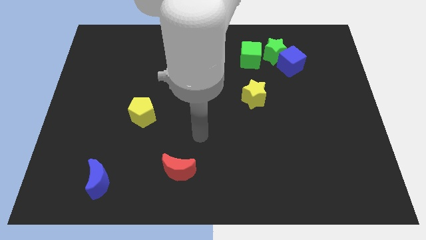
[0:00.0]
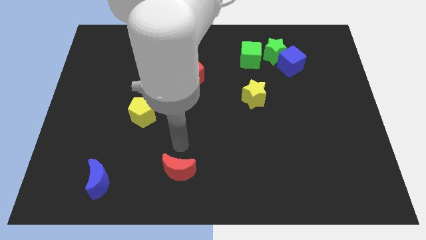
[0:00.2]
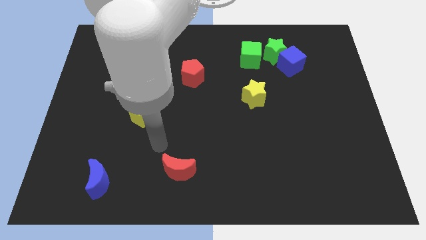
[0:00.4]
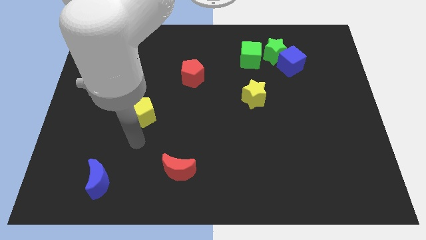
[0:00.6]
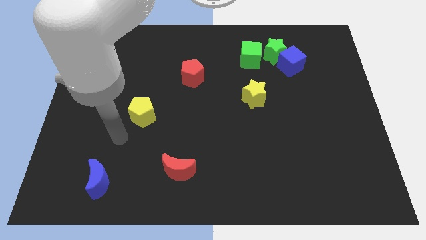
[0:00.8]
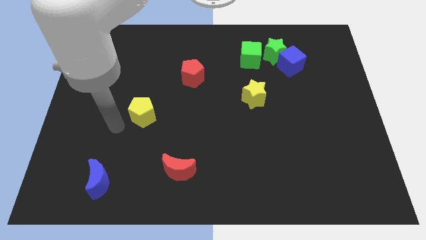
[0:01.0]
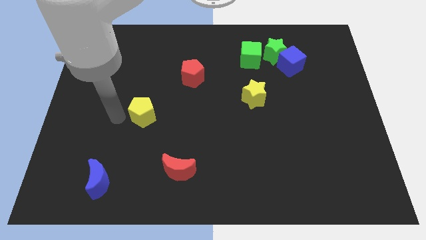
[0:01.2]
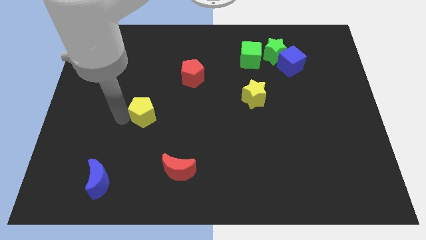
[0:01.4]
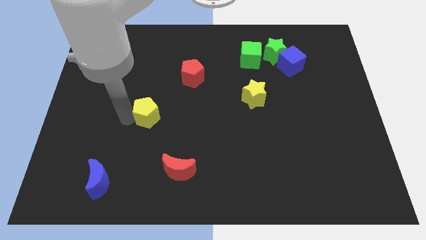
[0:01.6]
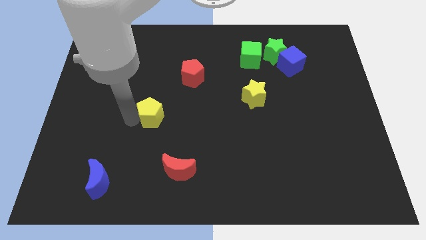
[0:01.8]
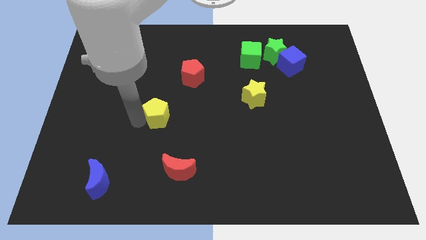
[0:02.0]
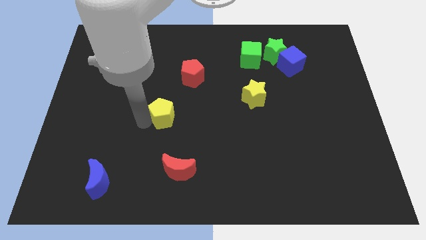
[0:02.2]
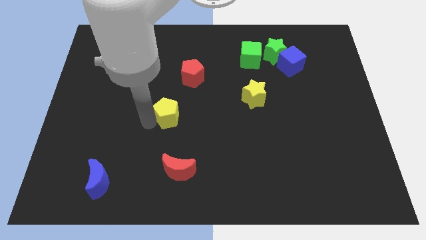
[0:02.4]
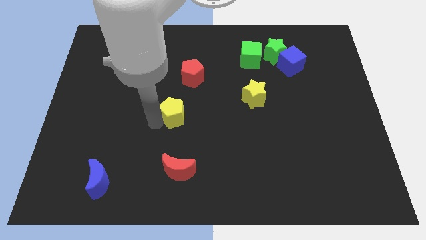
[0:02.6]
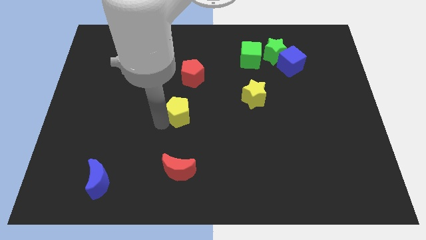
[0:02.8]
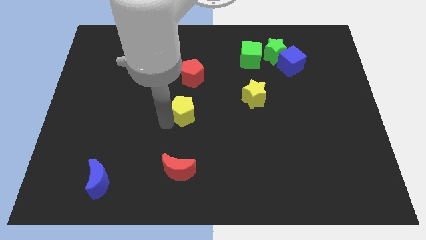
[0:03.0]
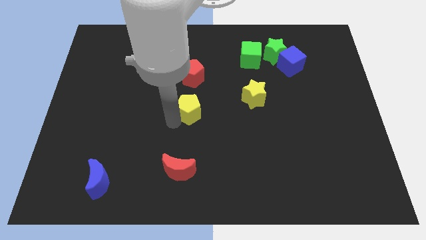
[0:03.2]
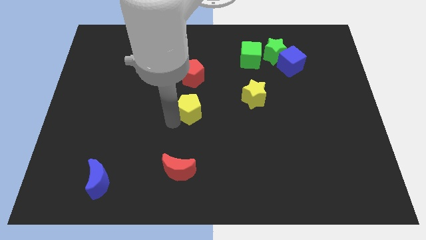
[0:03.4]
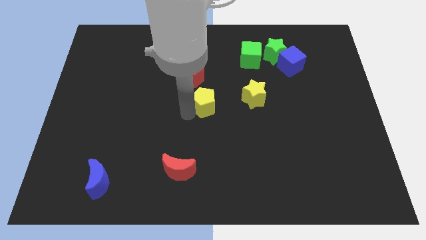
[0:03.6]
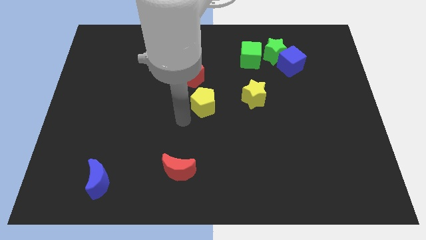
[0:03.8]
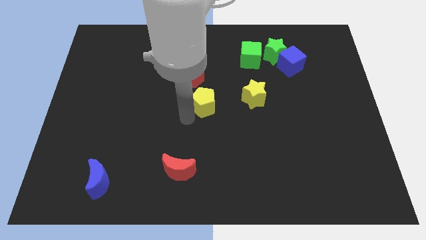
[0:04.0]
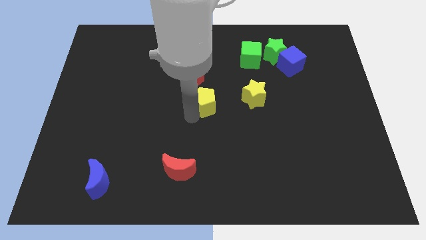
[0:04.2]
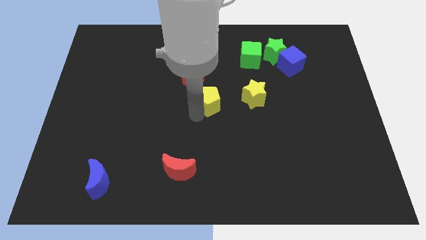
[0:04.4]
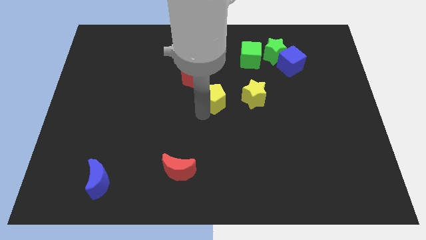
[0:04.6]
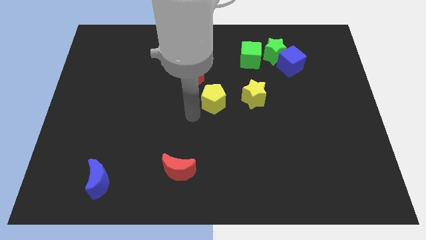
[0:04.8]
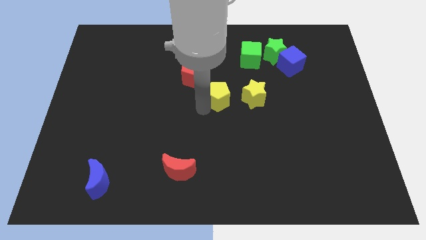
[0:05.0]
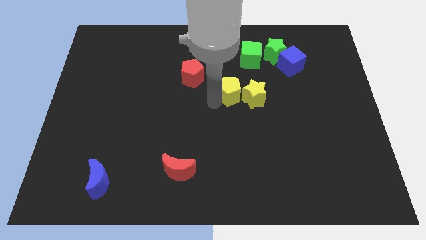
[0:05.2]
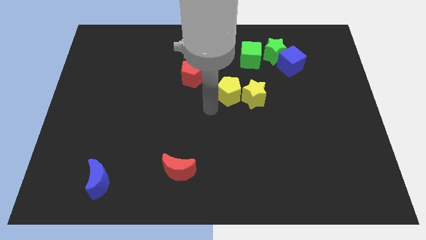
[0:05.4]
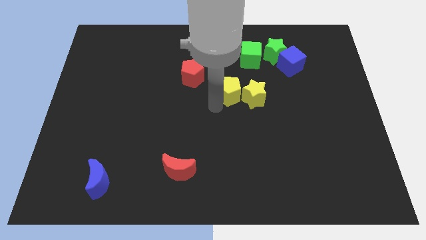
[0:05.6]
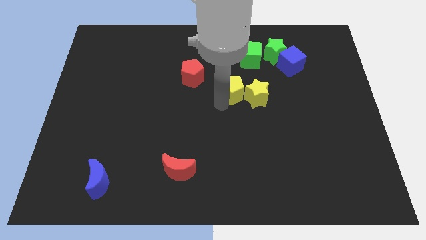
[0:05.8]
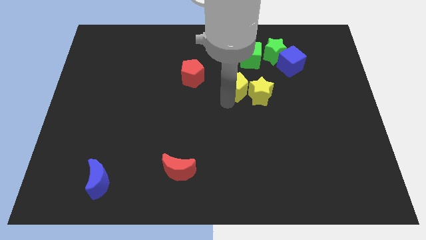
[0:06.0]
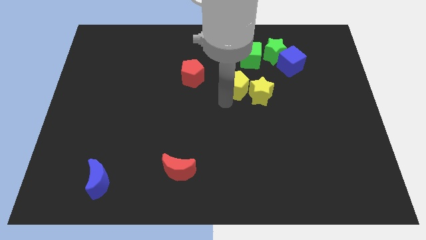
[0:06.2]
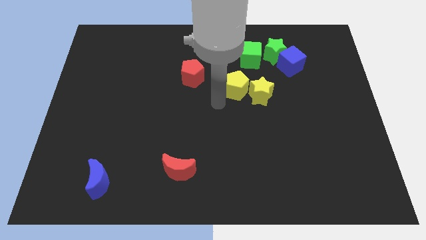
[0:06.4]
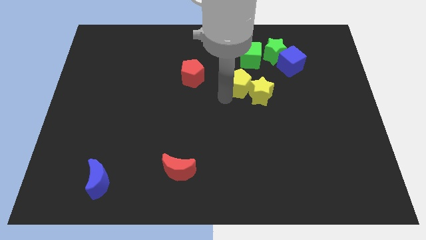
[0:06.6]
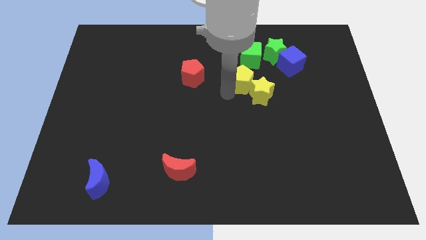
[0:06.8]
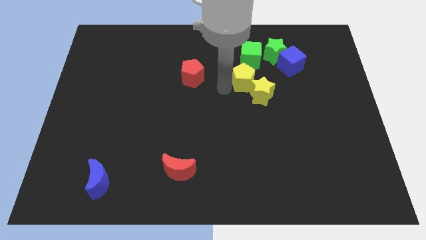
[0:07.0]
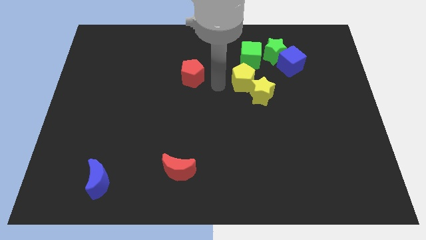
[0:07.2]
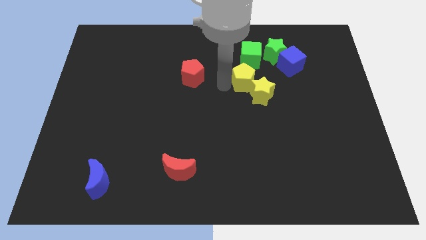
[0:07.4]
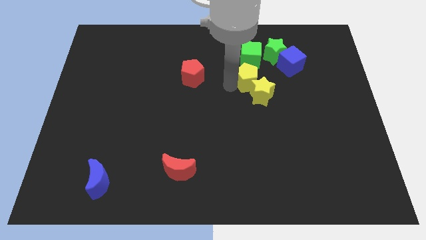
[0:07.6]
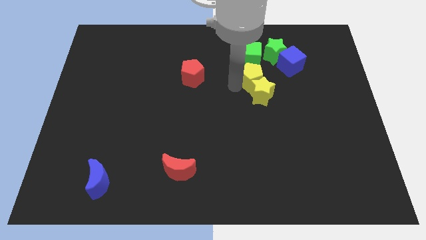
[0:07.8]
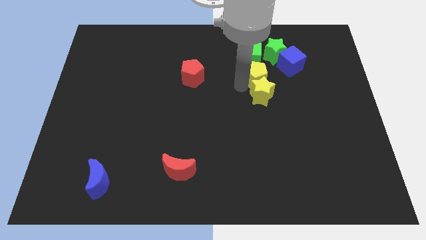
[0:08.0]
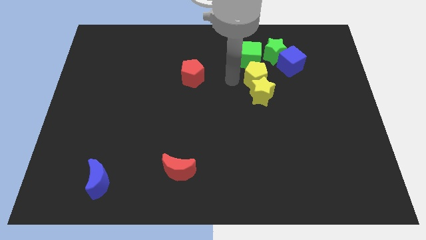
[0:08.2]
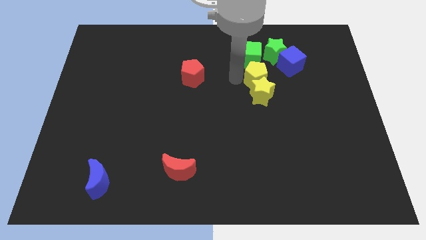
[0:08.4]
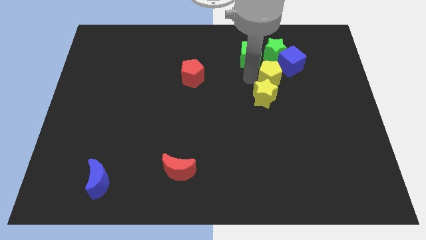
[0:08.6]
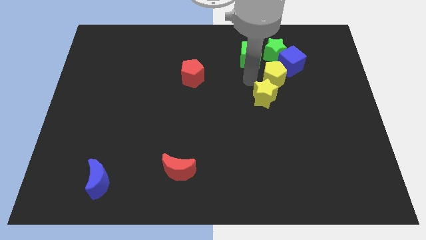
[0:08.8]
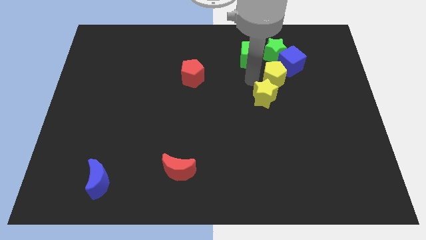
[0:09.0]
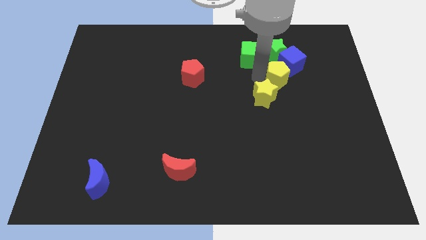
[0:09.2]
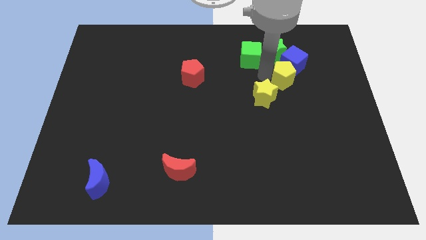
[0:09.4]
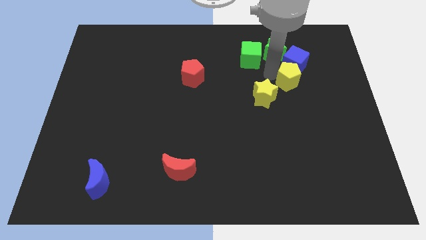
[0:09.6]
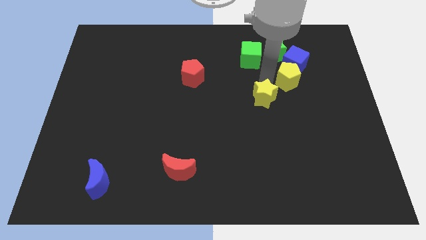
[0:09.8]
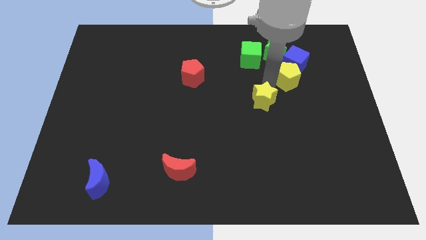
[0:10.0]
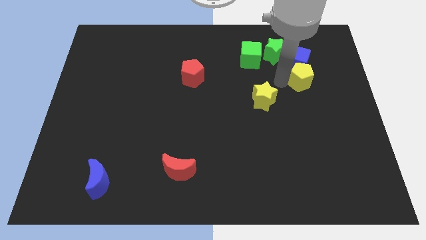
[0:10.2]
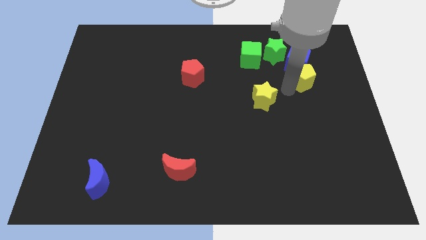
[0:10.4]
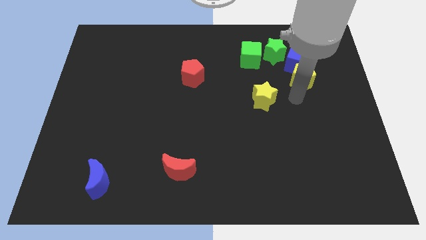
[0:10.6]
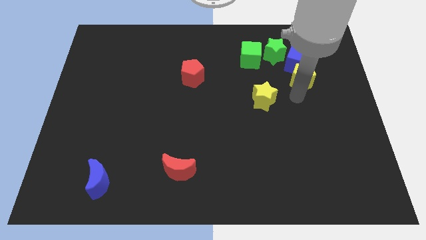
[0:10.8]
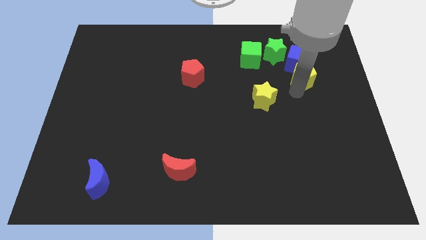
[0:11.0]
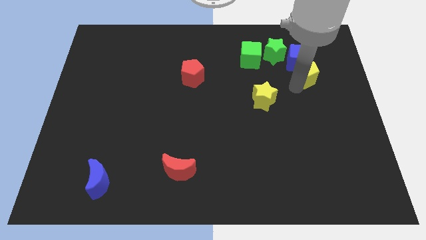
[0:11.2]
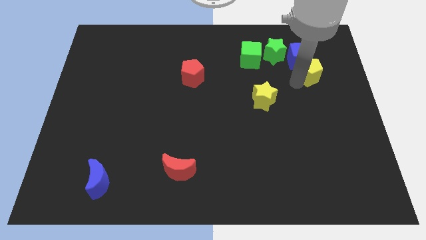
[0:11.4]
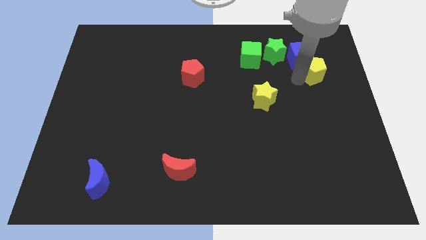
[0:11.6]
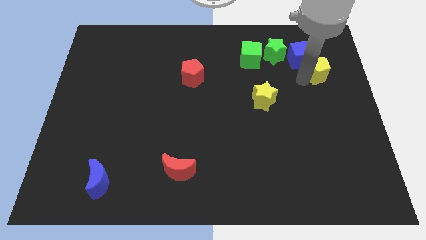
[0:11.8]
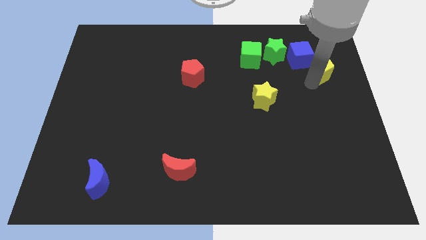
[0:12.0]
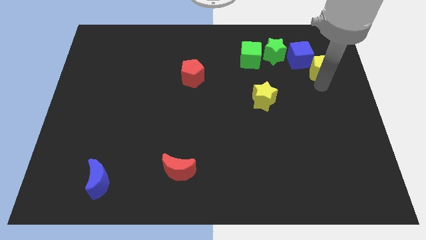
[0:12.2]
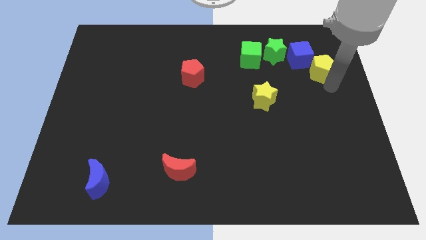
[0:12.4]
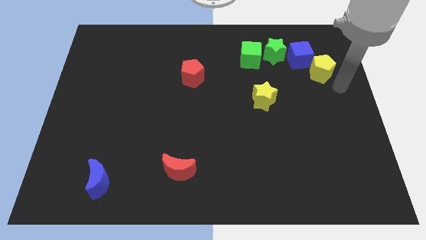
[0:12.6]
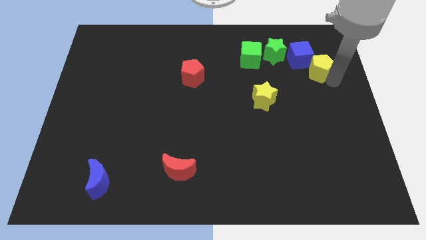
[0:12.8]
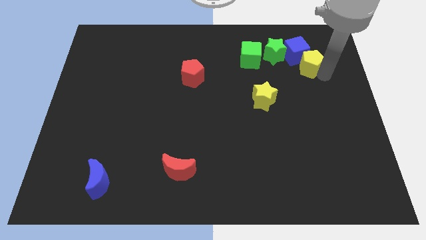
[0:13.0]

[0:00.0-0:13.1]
slide the yellow pentagon to the right of the green cube

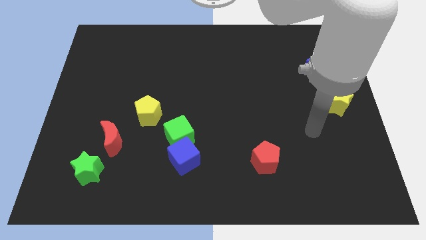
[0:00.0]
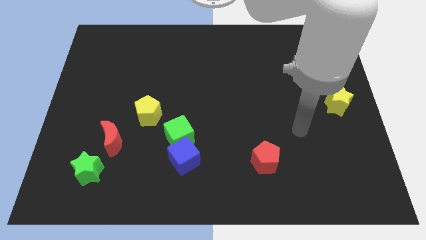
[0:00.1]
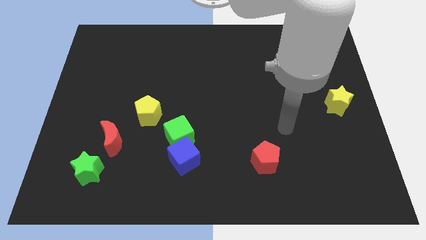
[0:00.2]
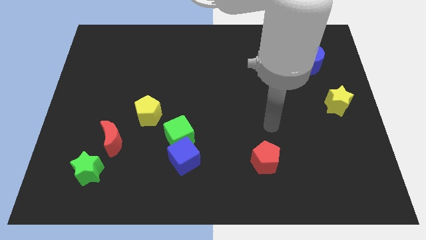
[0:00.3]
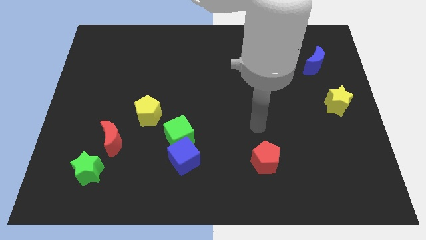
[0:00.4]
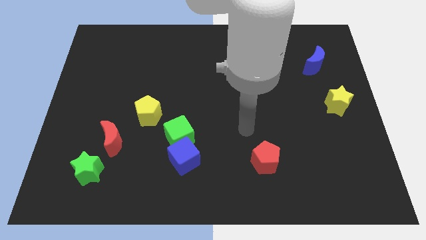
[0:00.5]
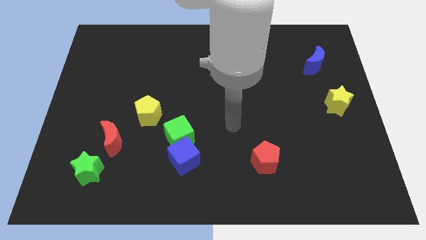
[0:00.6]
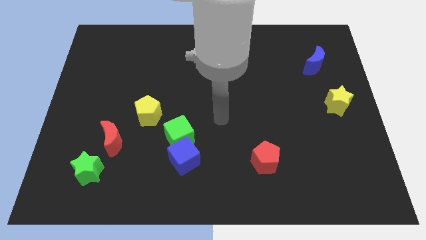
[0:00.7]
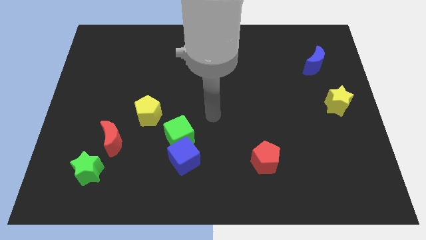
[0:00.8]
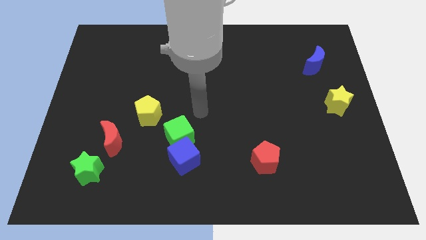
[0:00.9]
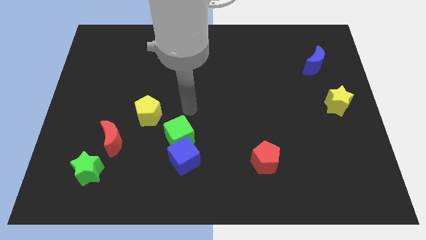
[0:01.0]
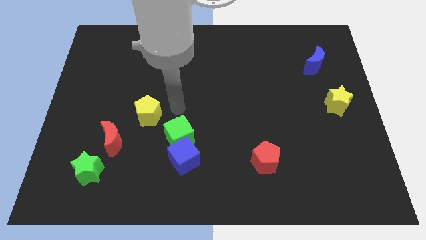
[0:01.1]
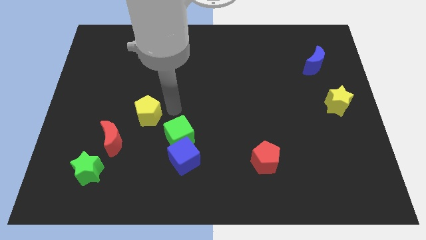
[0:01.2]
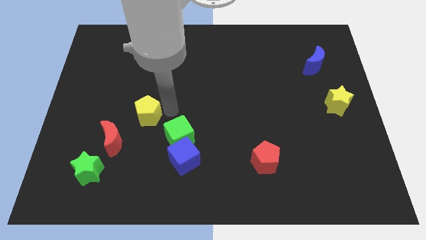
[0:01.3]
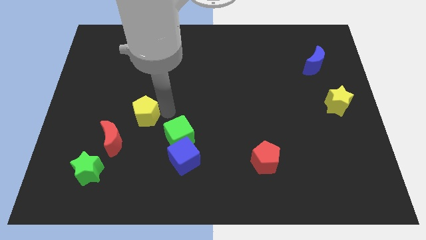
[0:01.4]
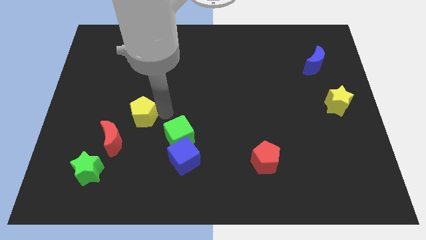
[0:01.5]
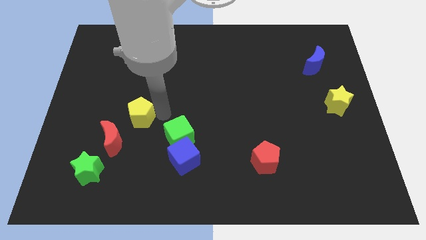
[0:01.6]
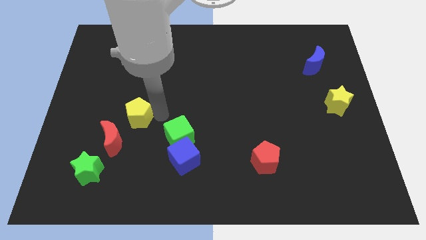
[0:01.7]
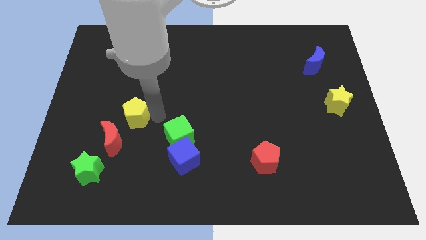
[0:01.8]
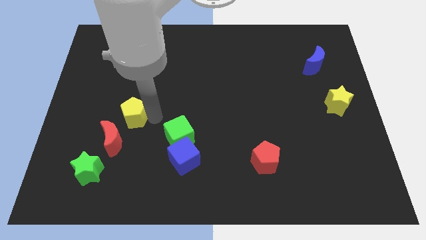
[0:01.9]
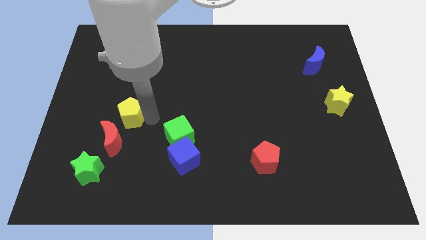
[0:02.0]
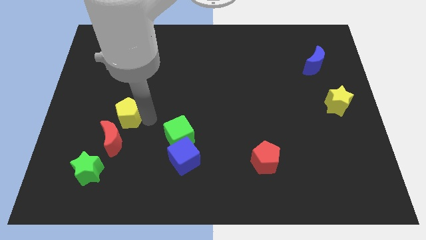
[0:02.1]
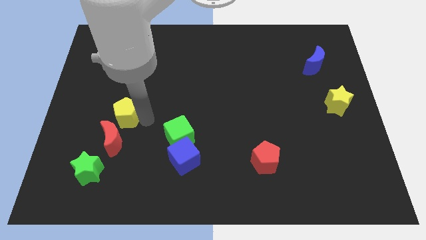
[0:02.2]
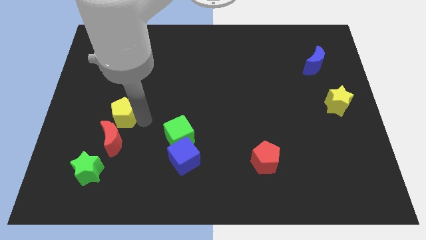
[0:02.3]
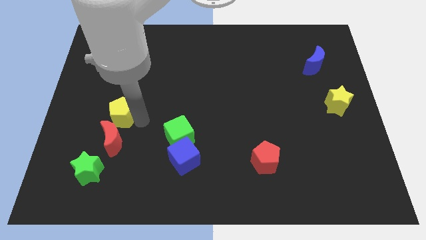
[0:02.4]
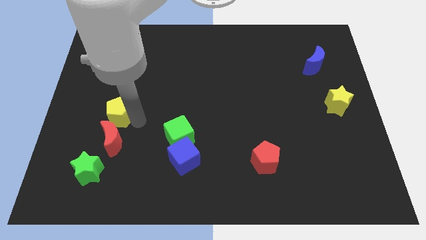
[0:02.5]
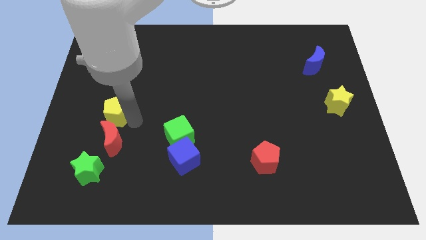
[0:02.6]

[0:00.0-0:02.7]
put the yellow pentagon to the top left side of the red moon
